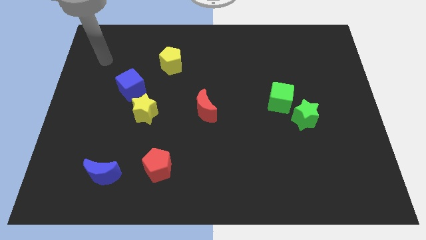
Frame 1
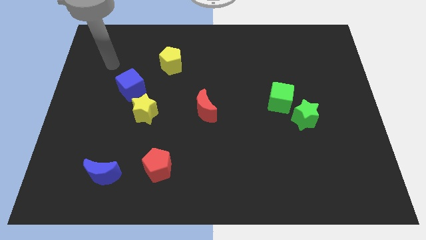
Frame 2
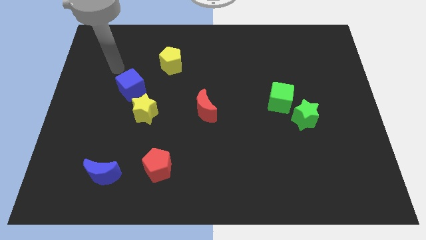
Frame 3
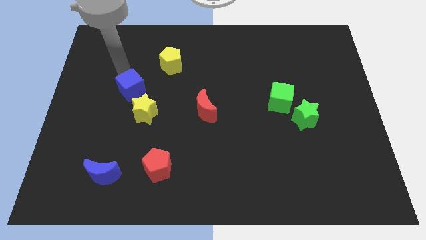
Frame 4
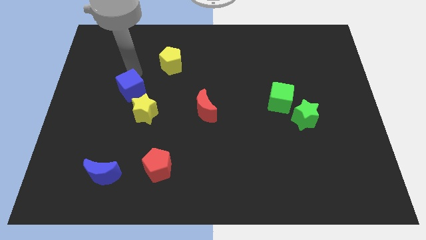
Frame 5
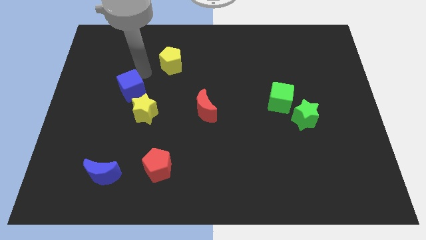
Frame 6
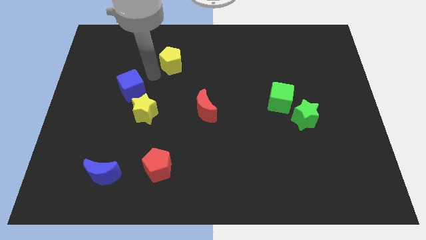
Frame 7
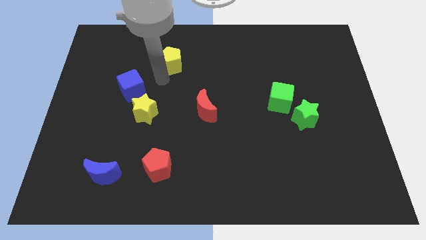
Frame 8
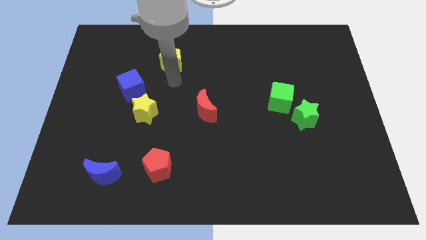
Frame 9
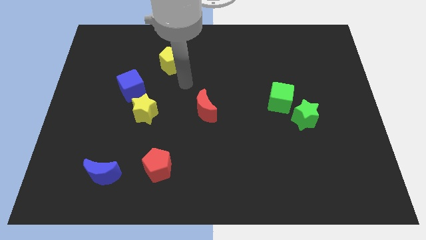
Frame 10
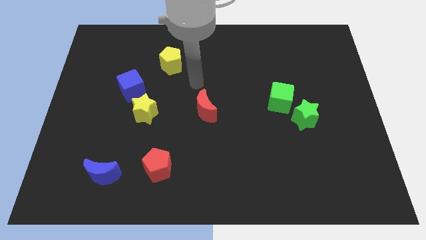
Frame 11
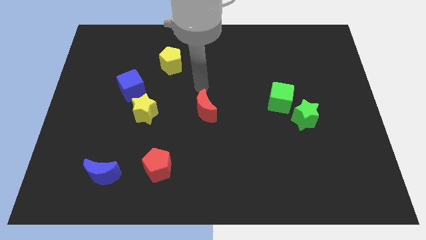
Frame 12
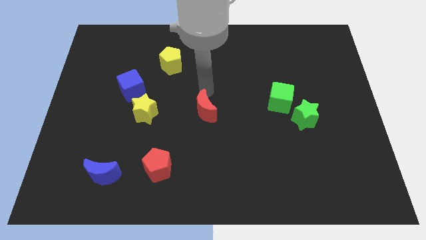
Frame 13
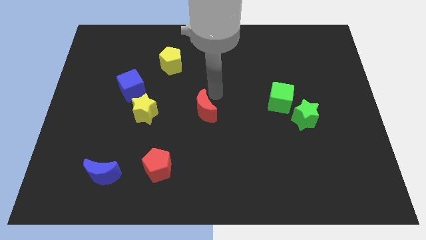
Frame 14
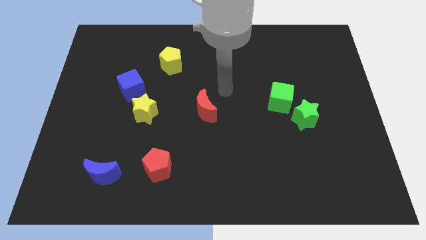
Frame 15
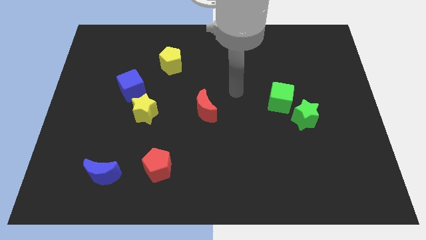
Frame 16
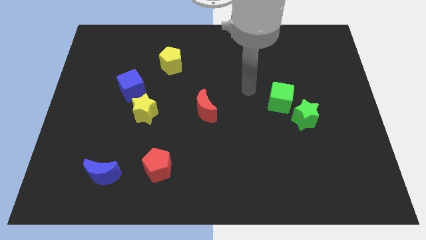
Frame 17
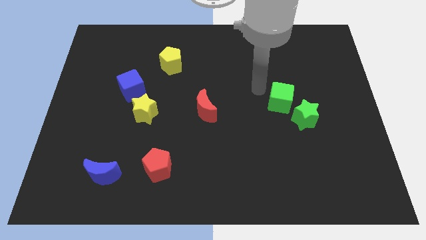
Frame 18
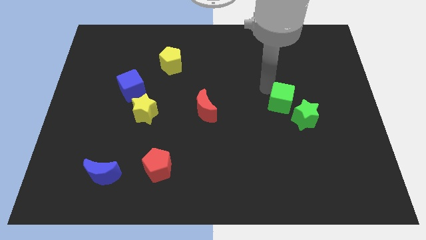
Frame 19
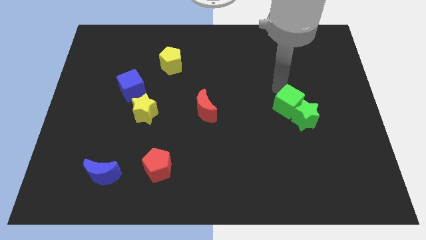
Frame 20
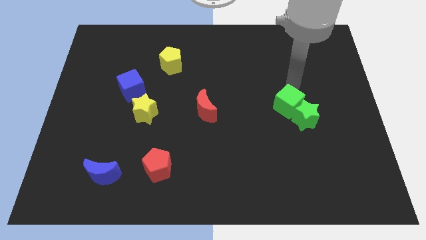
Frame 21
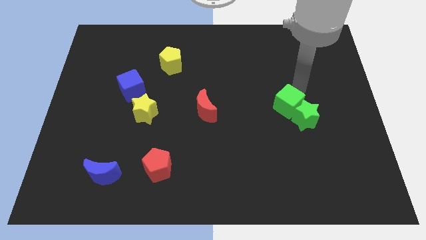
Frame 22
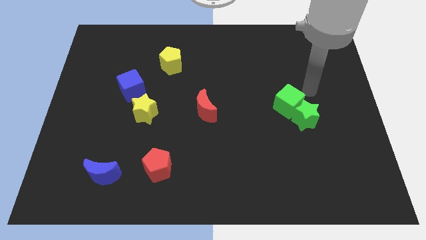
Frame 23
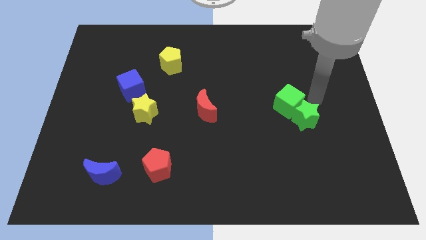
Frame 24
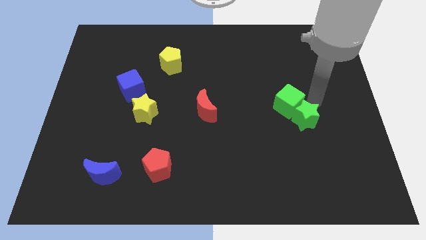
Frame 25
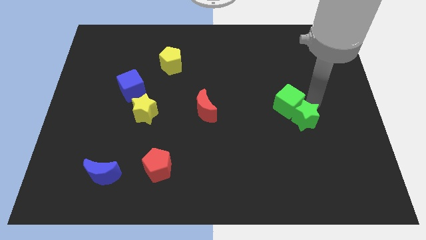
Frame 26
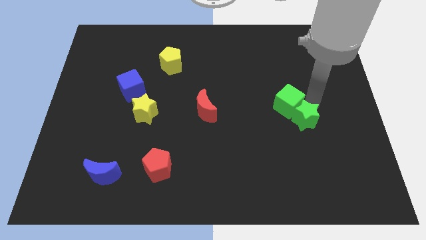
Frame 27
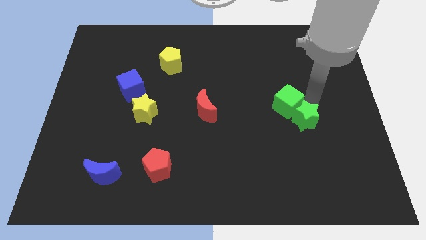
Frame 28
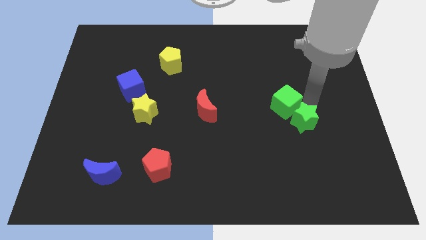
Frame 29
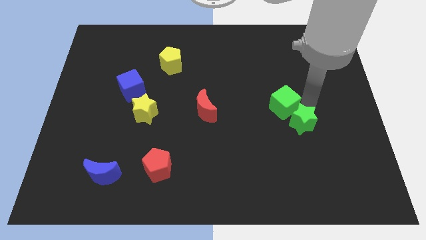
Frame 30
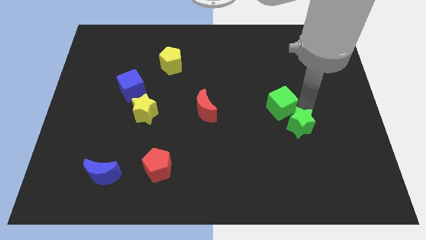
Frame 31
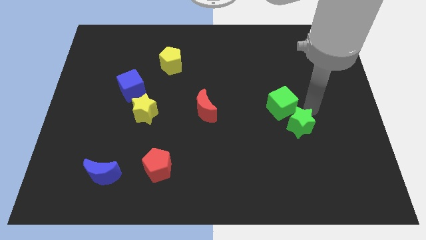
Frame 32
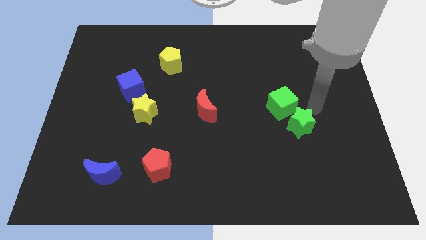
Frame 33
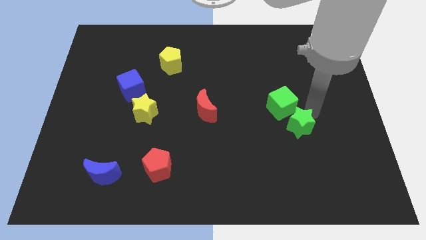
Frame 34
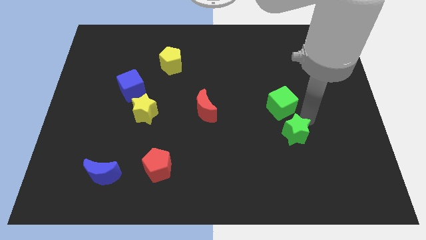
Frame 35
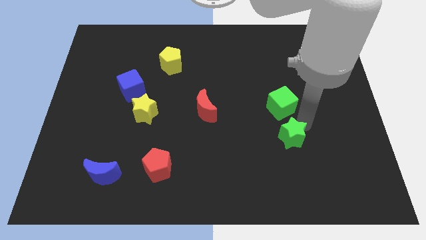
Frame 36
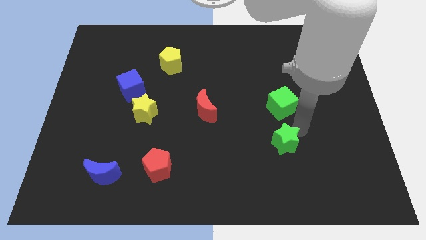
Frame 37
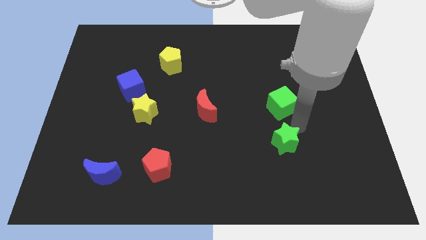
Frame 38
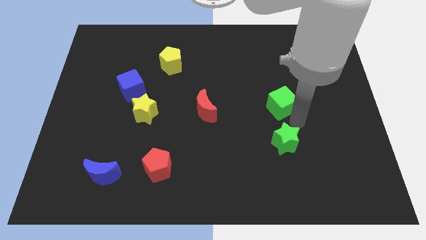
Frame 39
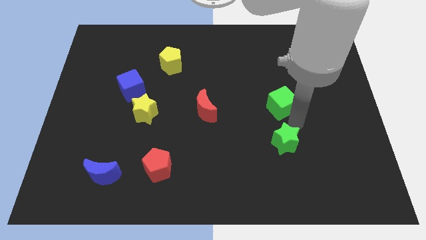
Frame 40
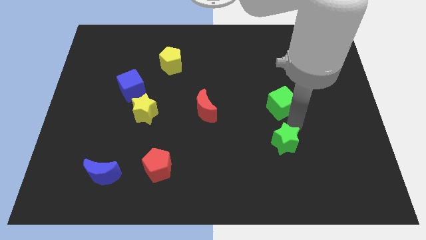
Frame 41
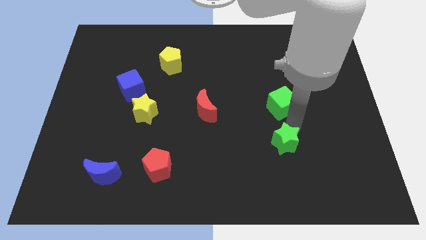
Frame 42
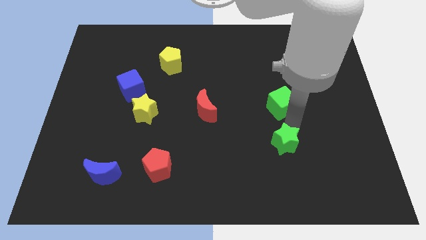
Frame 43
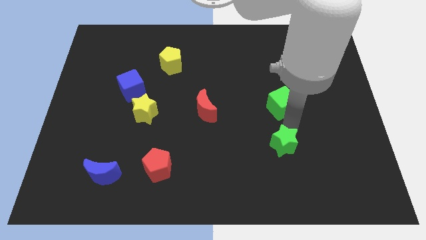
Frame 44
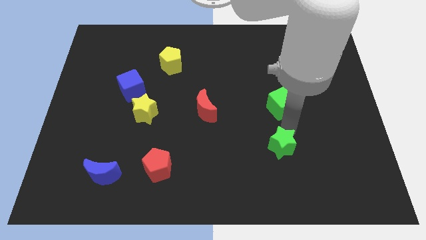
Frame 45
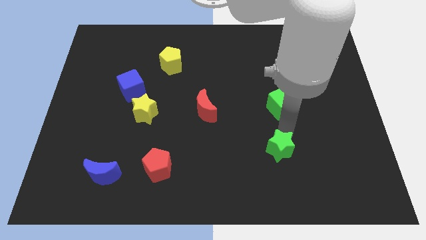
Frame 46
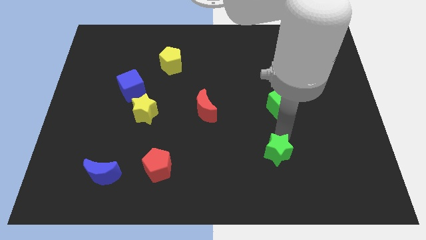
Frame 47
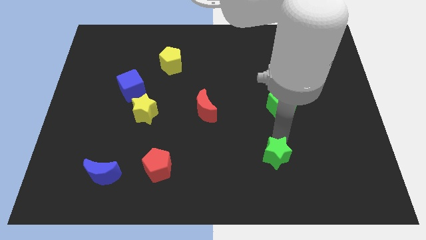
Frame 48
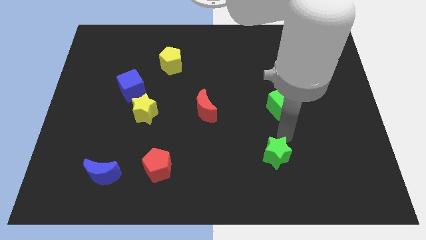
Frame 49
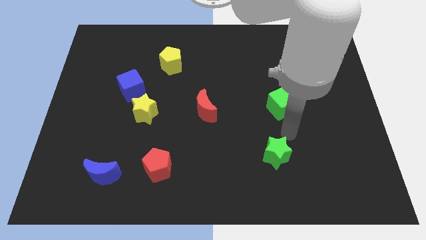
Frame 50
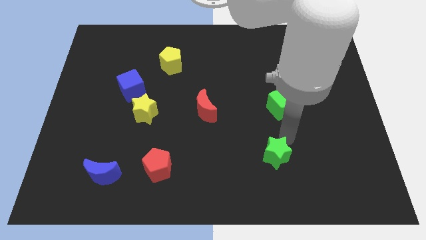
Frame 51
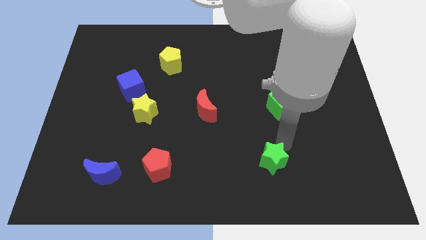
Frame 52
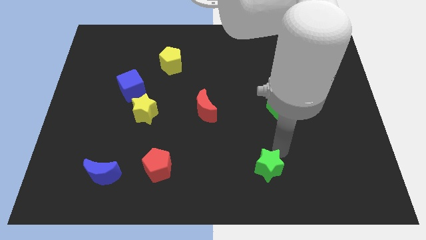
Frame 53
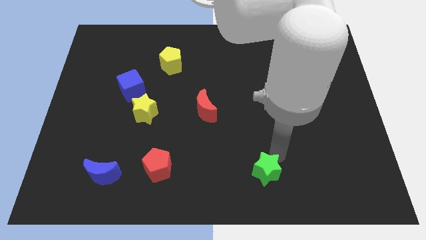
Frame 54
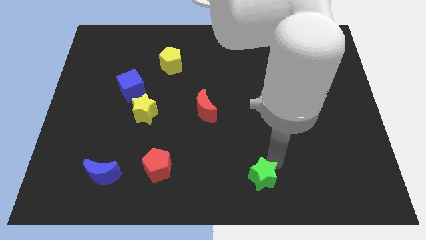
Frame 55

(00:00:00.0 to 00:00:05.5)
push the green star to the bottom

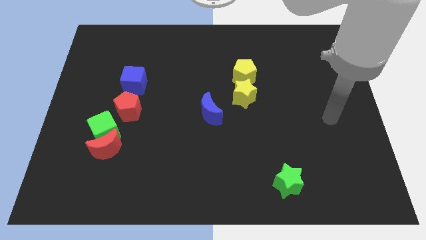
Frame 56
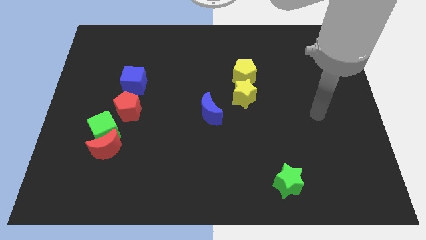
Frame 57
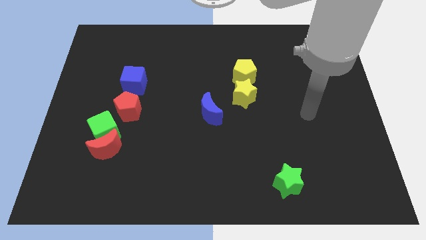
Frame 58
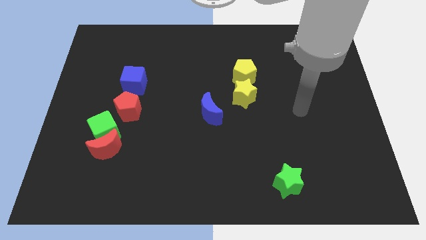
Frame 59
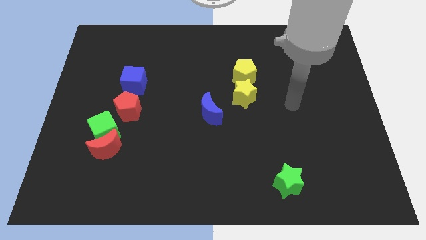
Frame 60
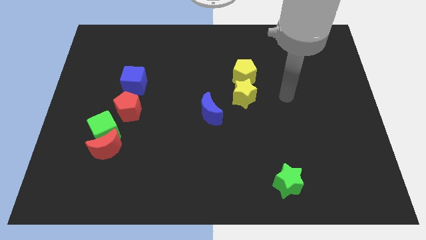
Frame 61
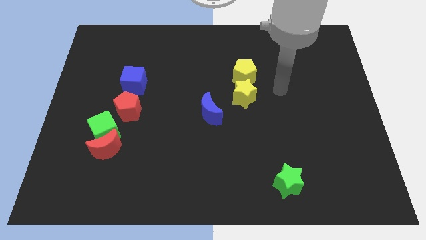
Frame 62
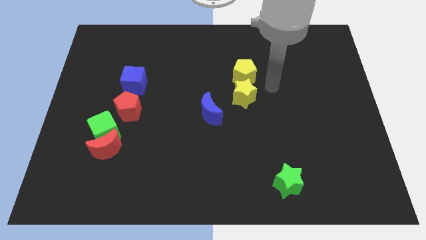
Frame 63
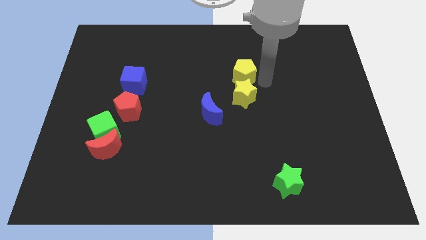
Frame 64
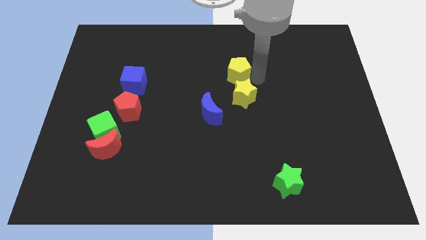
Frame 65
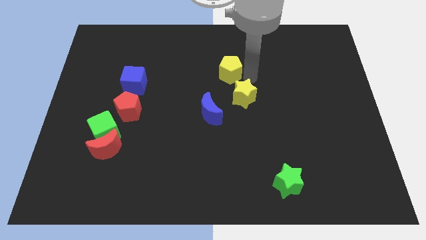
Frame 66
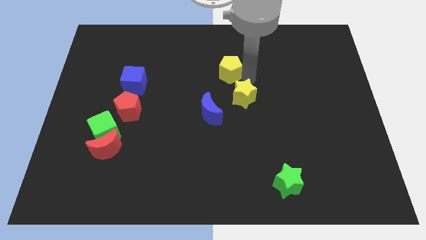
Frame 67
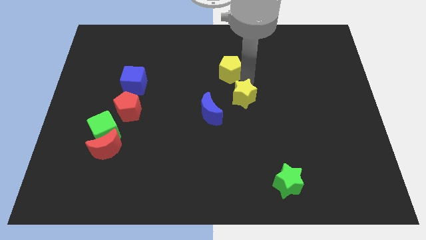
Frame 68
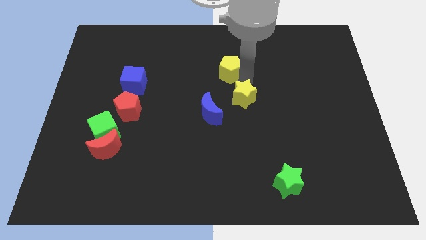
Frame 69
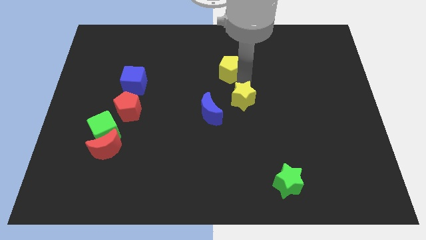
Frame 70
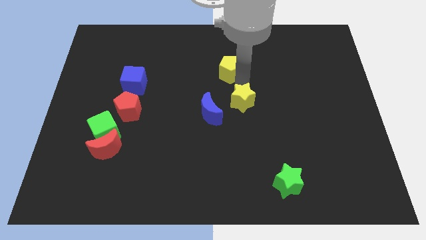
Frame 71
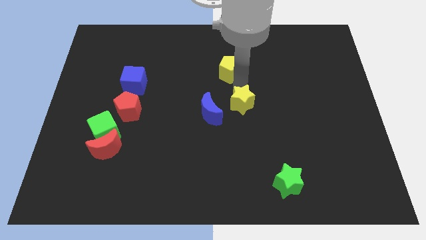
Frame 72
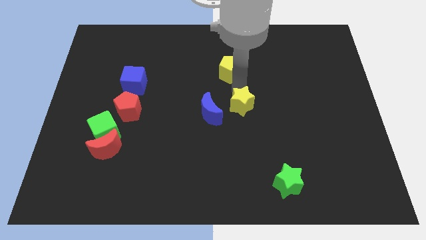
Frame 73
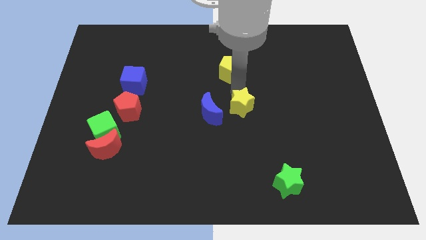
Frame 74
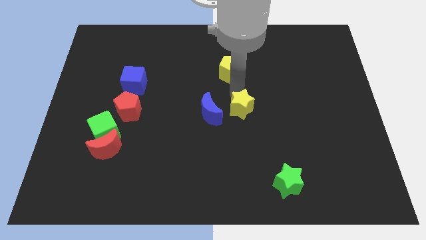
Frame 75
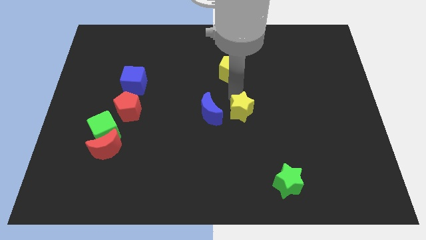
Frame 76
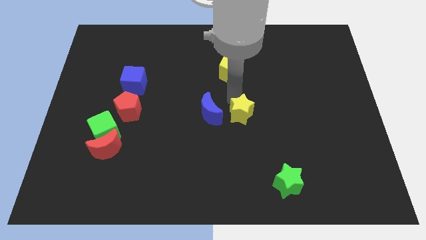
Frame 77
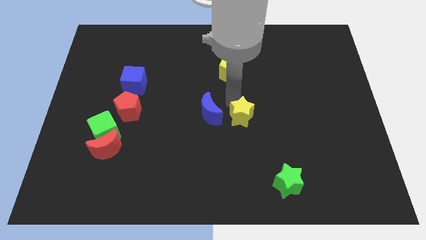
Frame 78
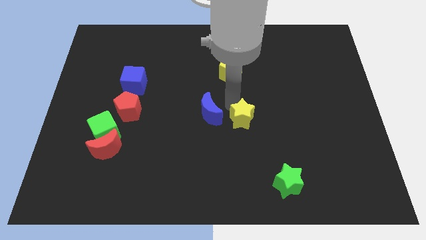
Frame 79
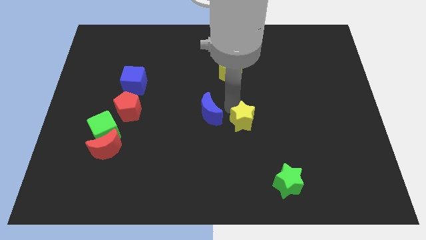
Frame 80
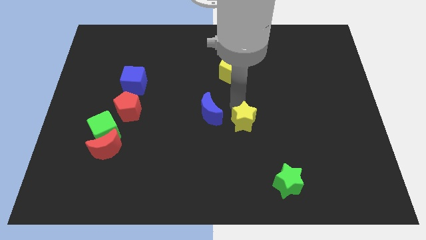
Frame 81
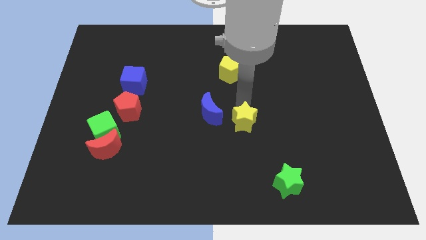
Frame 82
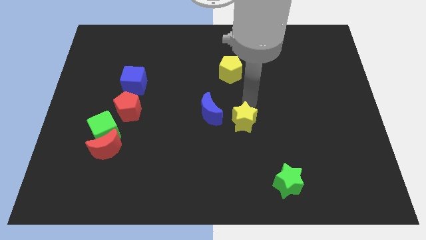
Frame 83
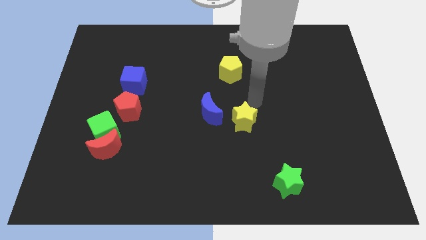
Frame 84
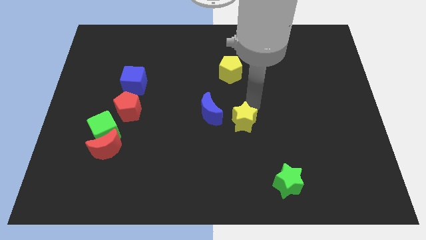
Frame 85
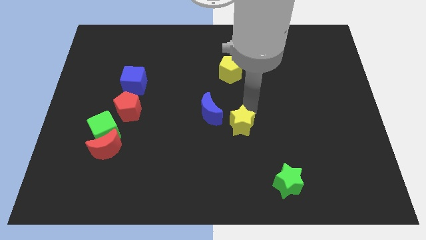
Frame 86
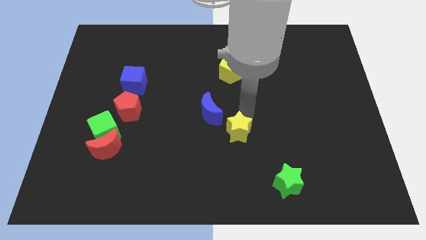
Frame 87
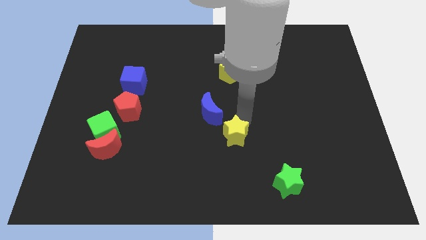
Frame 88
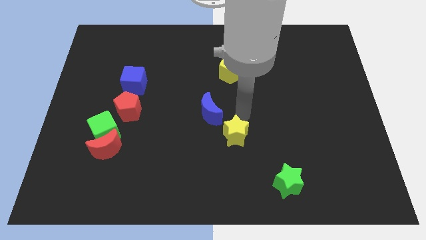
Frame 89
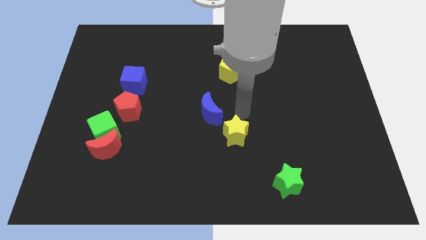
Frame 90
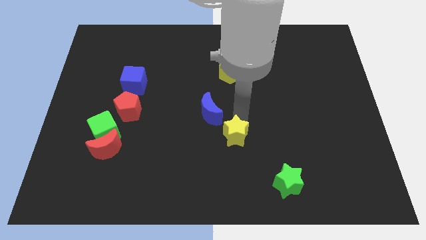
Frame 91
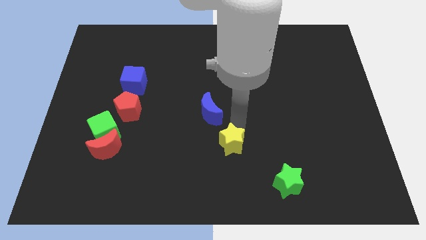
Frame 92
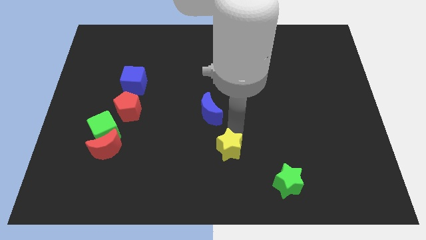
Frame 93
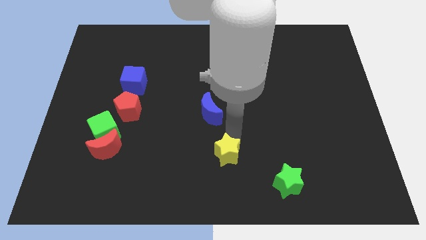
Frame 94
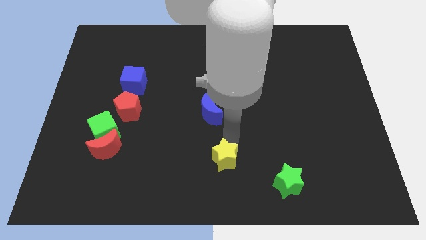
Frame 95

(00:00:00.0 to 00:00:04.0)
slide the yellow star to the bottom
